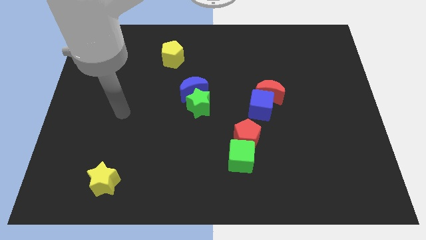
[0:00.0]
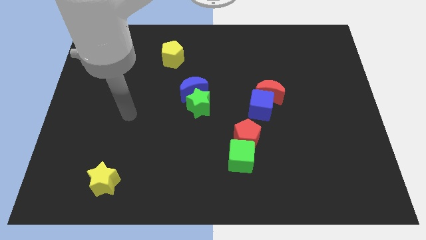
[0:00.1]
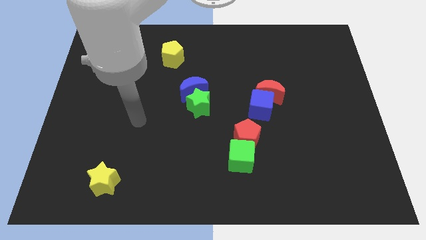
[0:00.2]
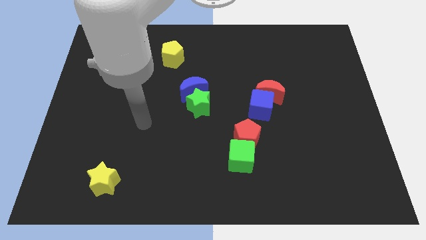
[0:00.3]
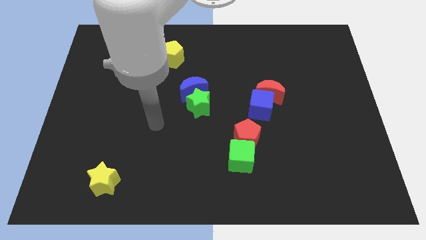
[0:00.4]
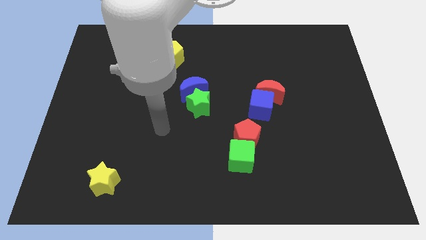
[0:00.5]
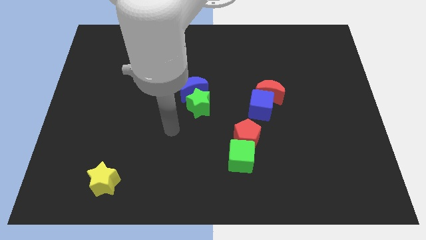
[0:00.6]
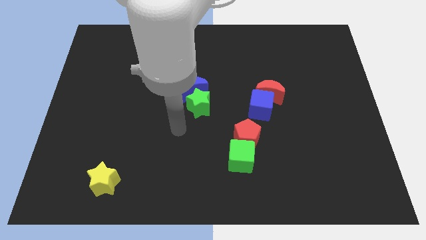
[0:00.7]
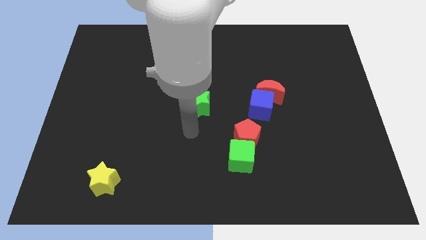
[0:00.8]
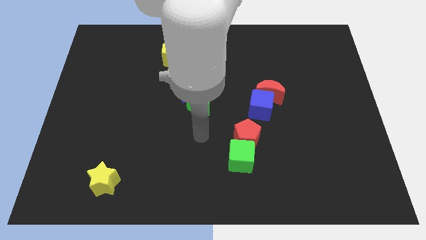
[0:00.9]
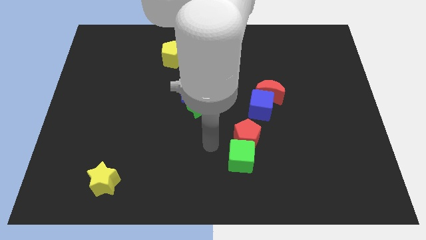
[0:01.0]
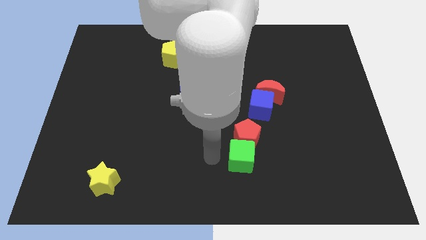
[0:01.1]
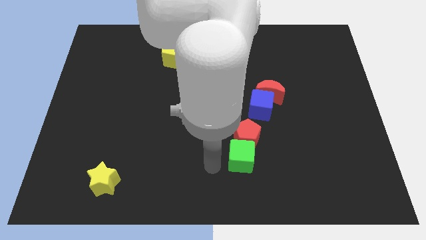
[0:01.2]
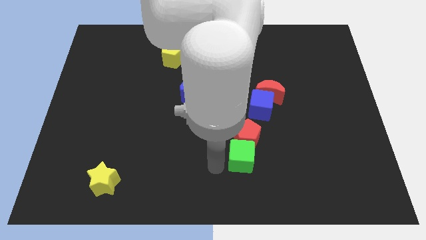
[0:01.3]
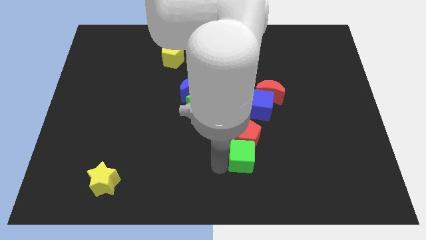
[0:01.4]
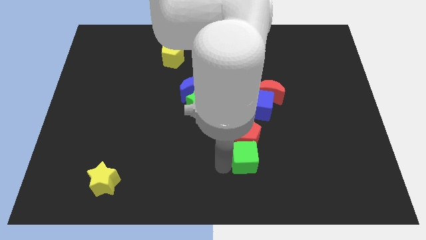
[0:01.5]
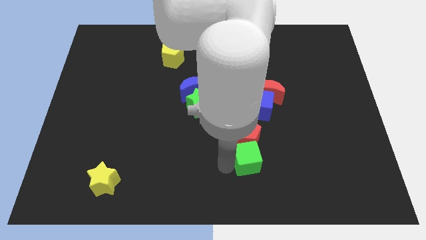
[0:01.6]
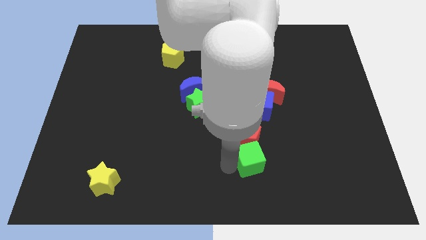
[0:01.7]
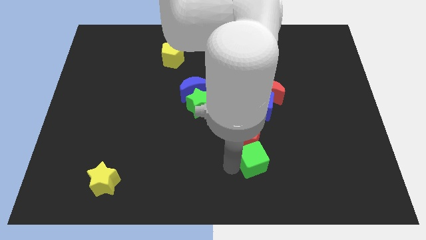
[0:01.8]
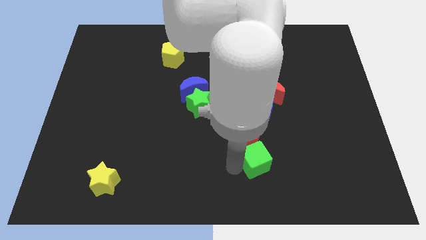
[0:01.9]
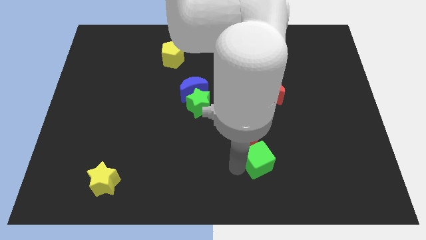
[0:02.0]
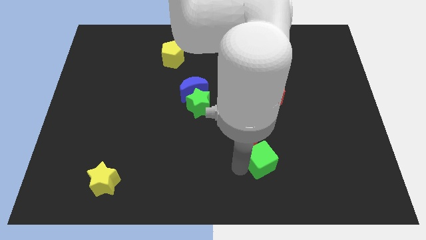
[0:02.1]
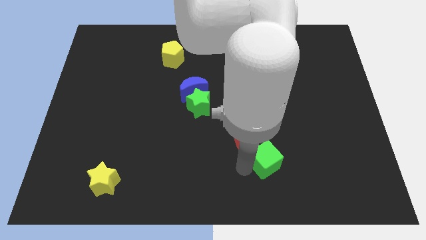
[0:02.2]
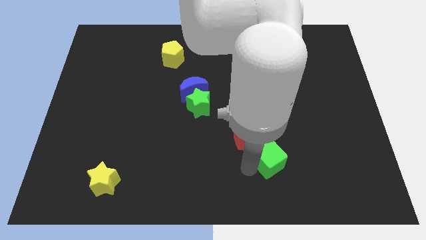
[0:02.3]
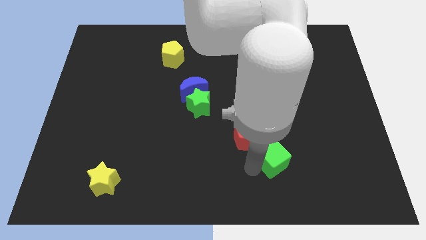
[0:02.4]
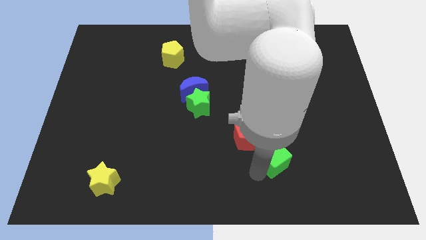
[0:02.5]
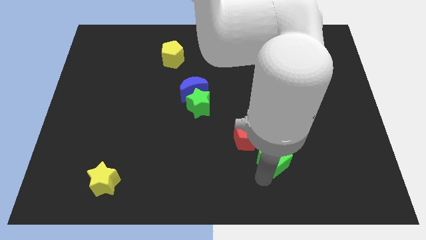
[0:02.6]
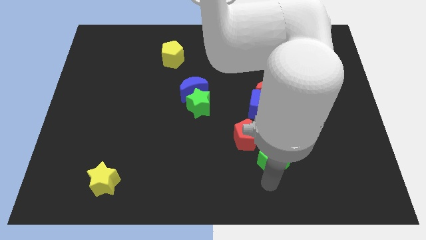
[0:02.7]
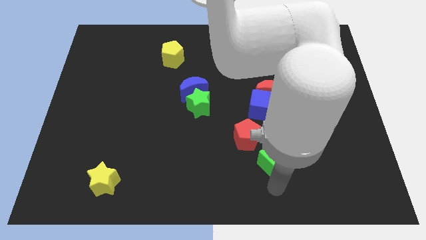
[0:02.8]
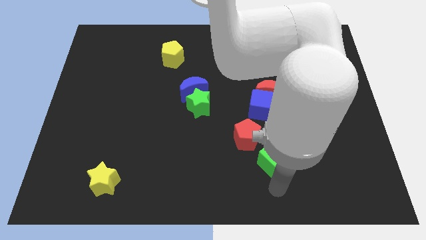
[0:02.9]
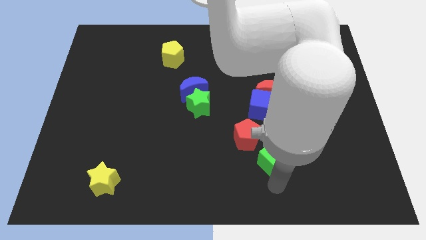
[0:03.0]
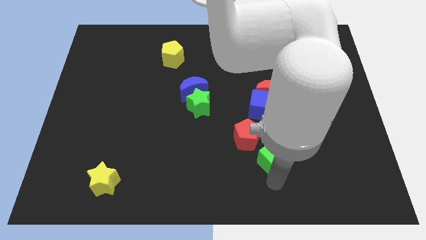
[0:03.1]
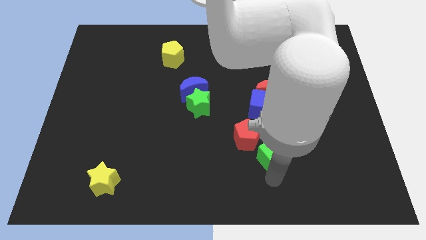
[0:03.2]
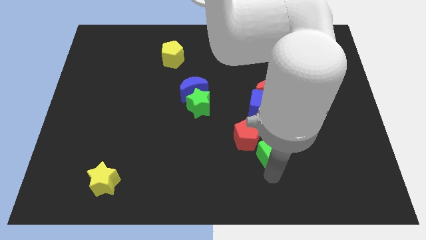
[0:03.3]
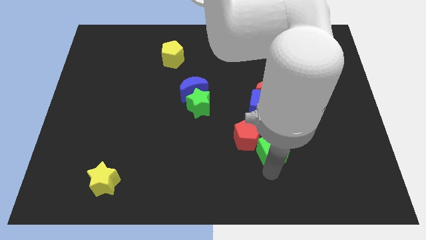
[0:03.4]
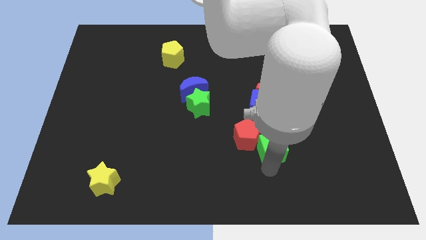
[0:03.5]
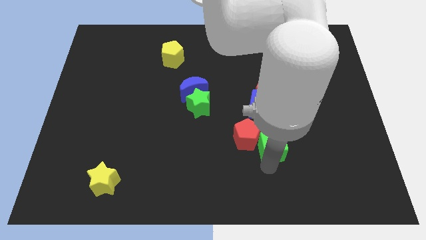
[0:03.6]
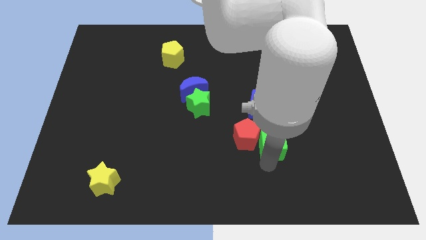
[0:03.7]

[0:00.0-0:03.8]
slightly slide the green cube up and then right

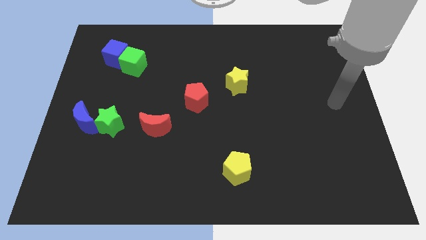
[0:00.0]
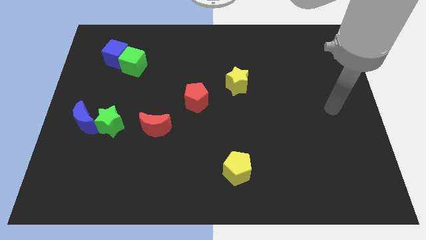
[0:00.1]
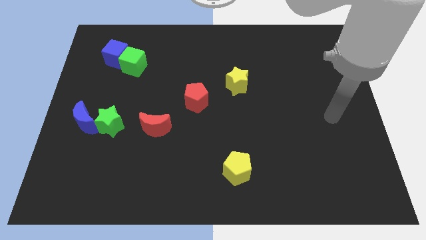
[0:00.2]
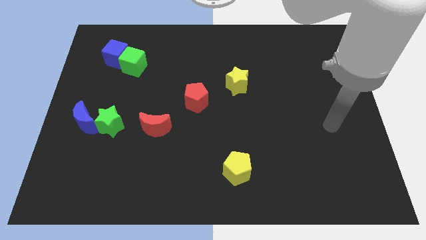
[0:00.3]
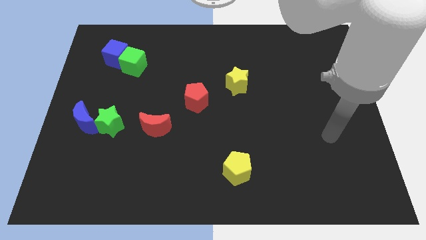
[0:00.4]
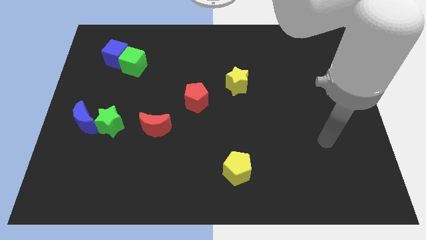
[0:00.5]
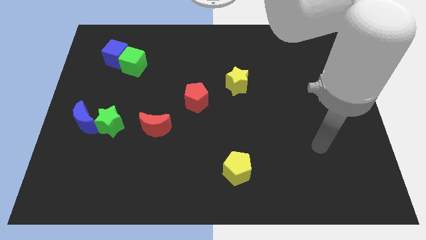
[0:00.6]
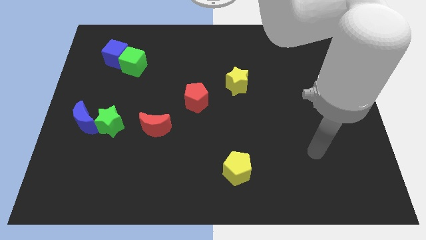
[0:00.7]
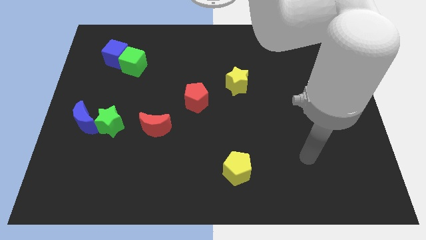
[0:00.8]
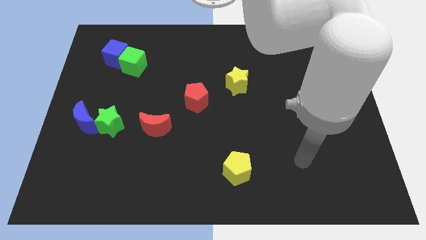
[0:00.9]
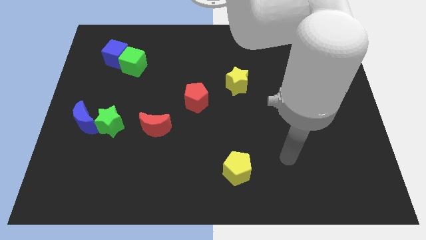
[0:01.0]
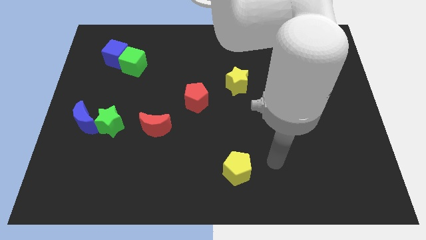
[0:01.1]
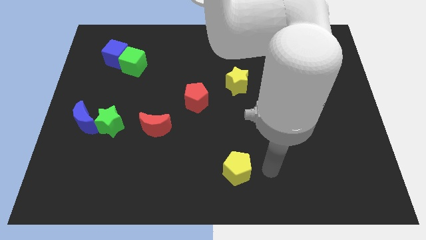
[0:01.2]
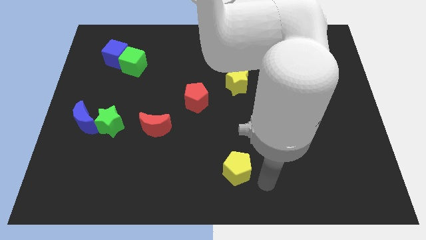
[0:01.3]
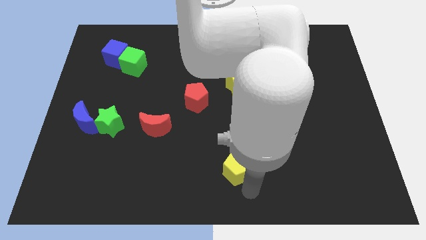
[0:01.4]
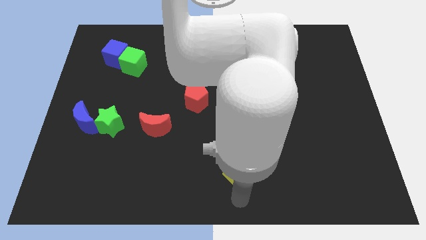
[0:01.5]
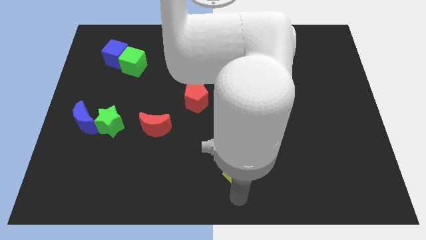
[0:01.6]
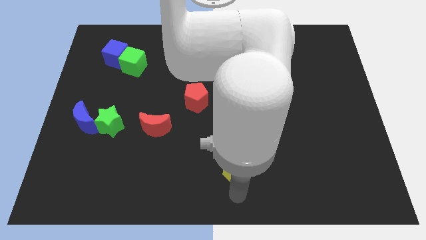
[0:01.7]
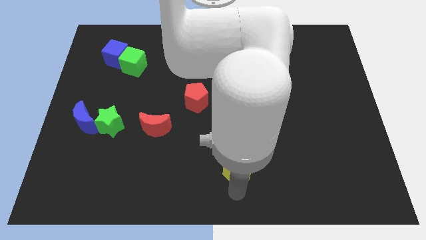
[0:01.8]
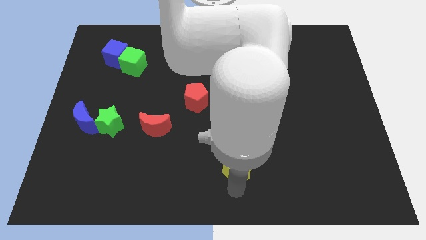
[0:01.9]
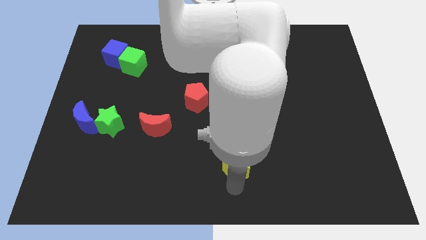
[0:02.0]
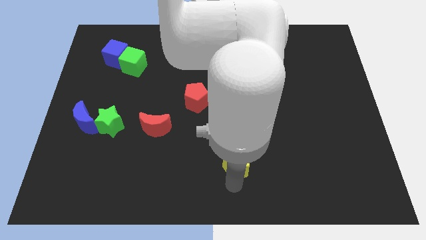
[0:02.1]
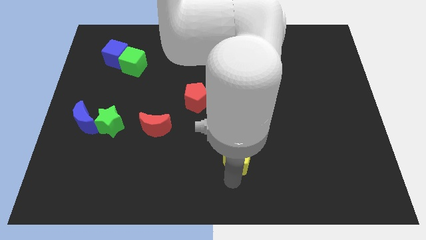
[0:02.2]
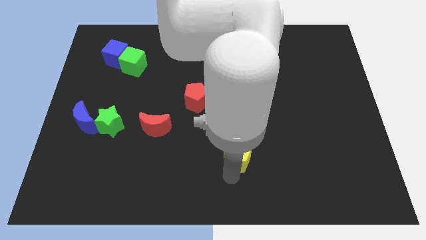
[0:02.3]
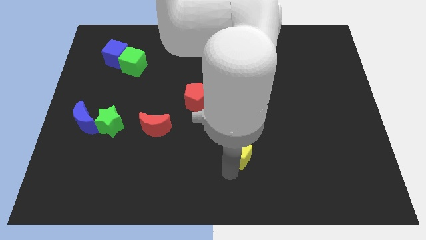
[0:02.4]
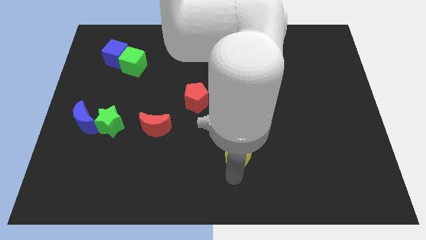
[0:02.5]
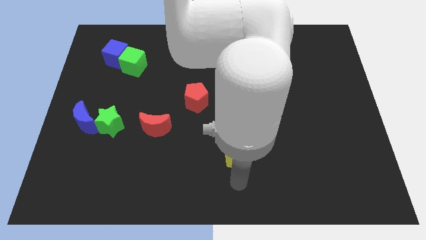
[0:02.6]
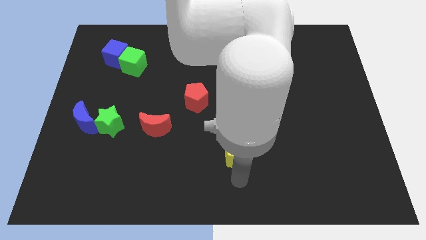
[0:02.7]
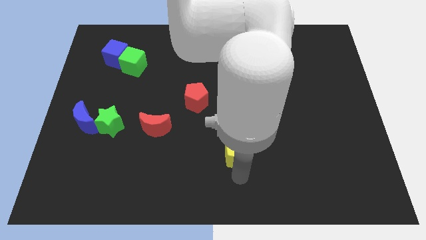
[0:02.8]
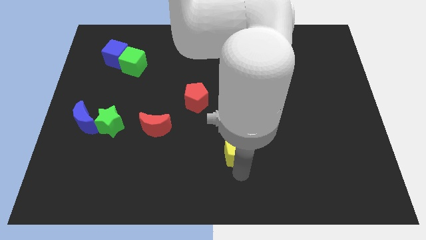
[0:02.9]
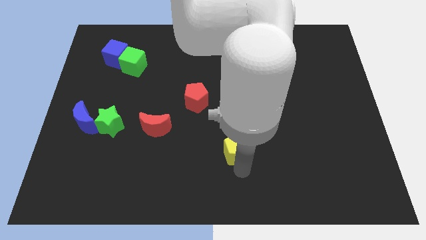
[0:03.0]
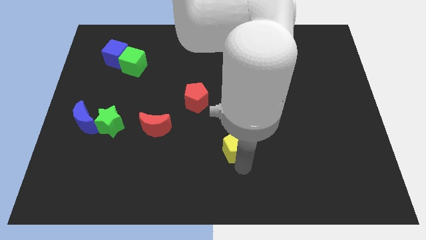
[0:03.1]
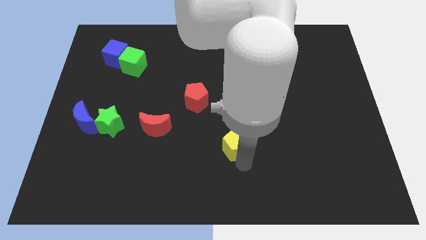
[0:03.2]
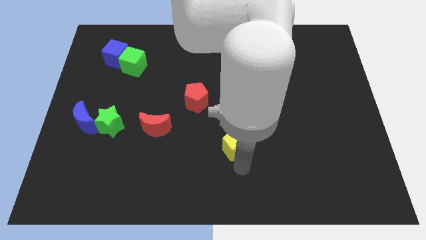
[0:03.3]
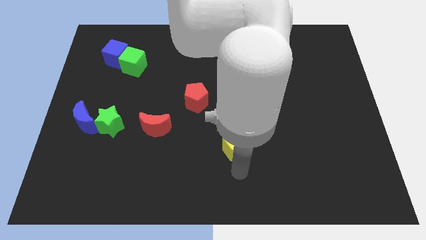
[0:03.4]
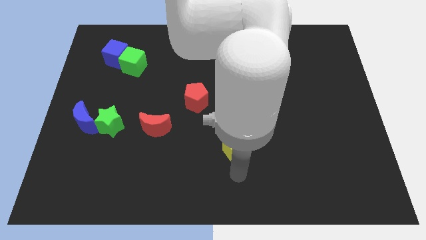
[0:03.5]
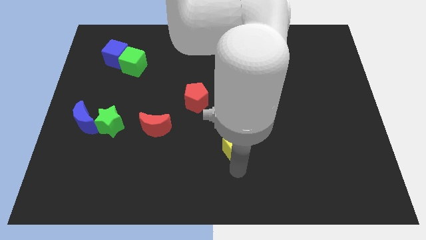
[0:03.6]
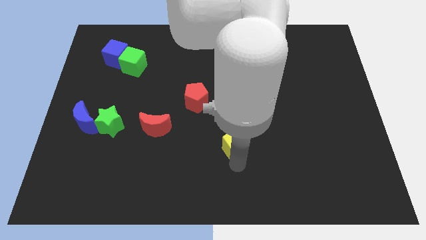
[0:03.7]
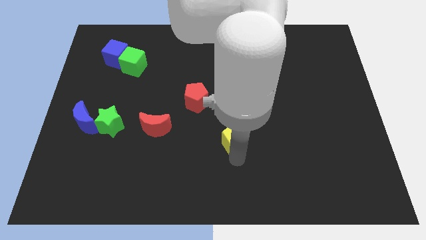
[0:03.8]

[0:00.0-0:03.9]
push the yellow pentagon slightly up

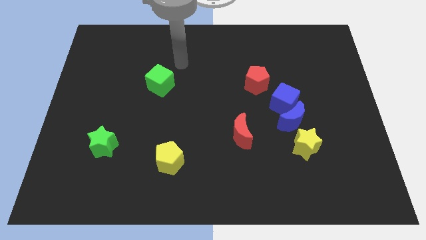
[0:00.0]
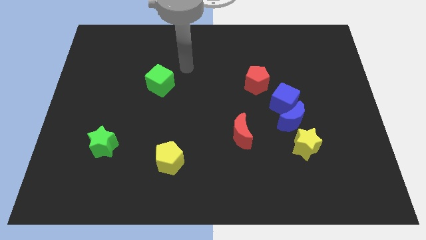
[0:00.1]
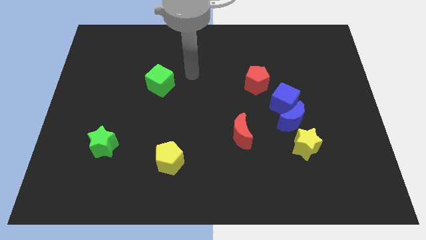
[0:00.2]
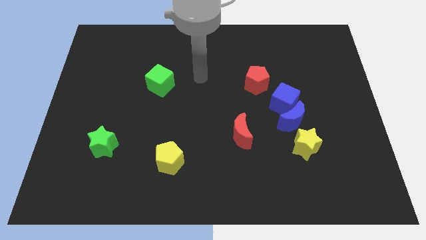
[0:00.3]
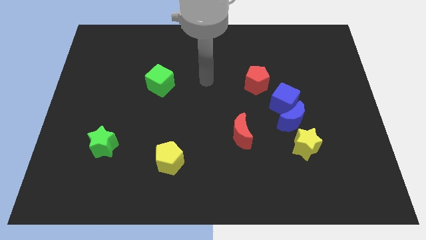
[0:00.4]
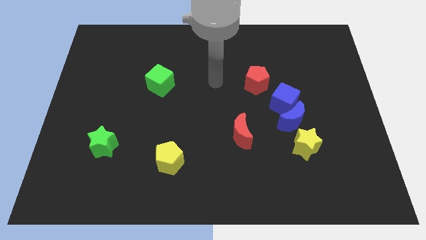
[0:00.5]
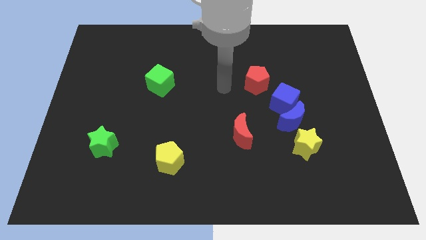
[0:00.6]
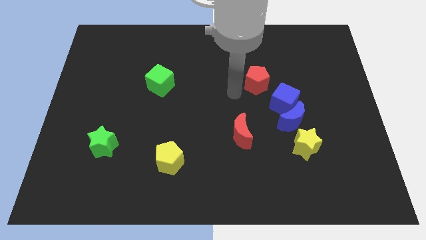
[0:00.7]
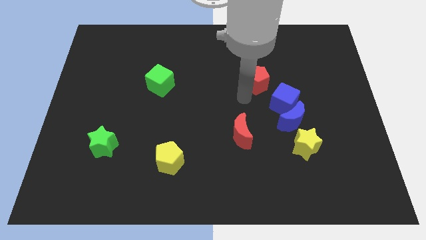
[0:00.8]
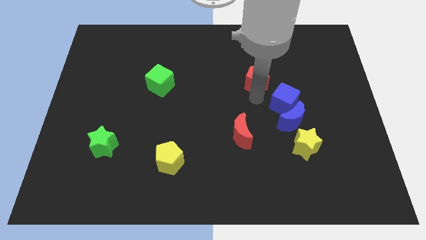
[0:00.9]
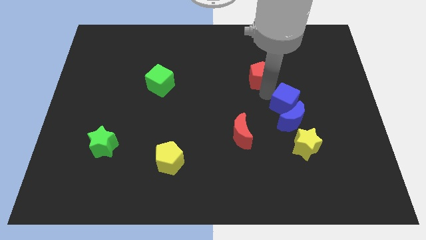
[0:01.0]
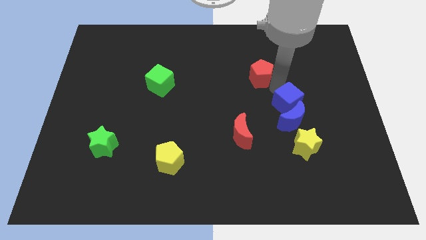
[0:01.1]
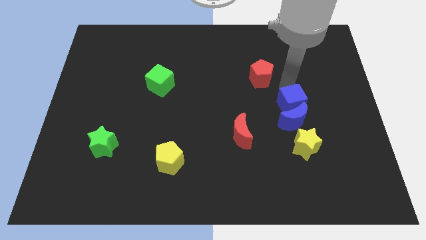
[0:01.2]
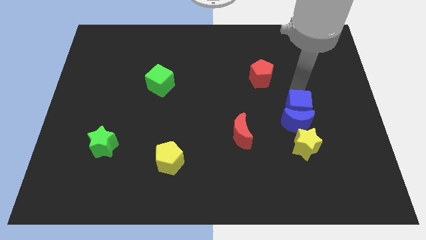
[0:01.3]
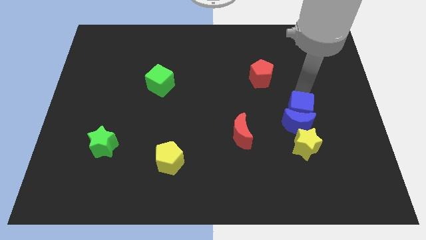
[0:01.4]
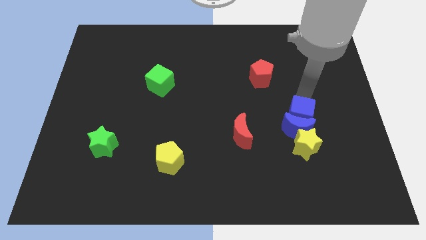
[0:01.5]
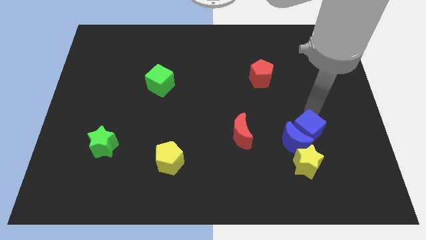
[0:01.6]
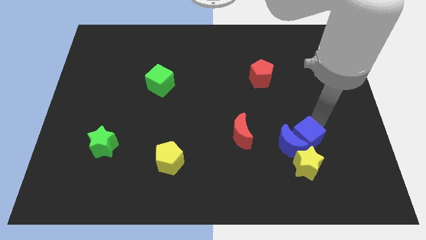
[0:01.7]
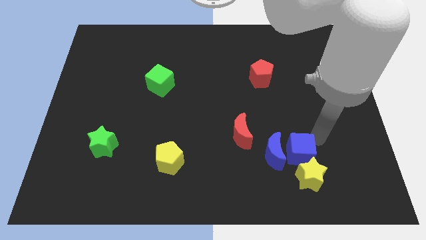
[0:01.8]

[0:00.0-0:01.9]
slide the blue moon downwards and left a bit
